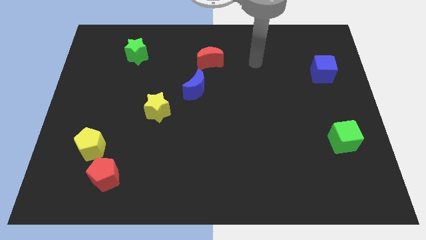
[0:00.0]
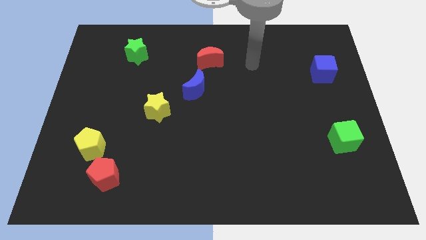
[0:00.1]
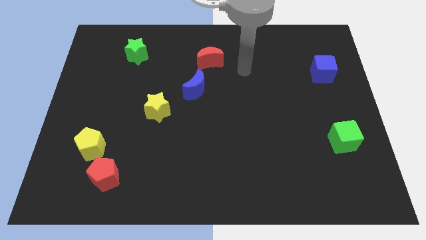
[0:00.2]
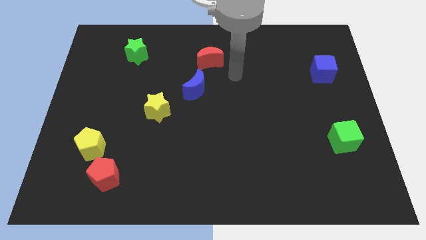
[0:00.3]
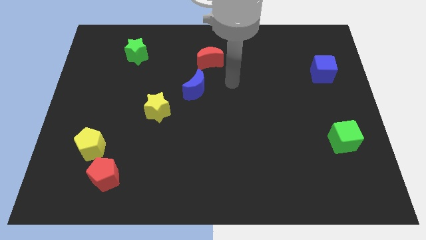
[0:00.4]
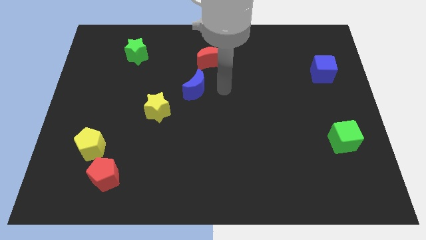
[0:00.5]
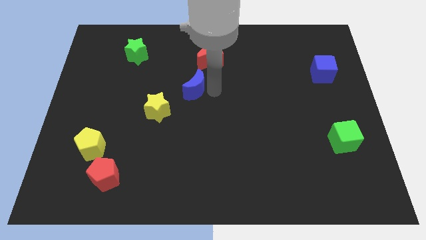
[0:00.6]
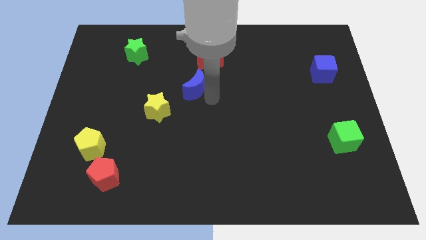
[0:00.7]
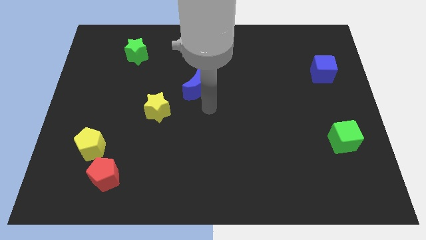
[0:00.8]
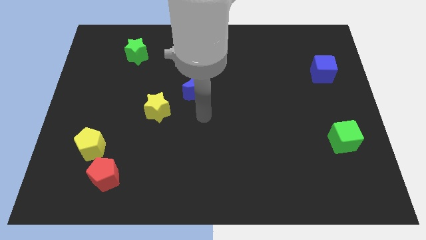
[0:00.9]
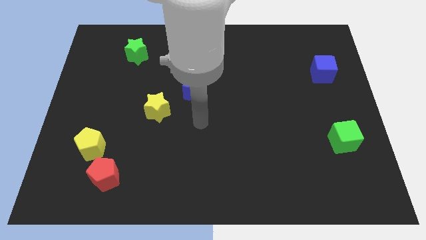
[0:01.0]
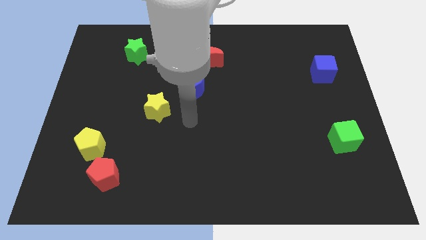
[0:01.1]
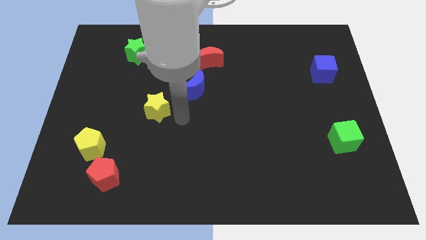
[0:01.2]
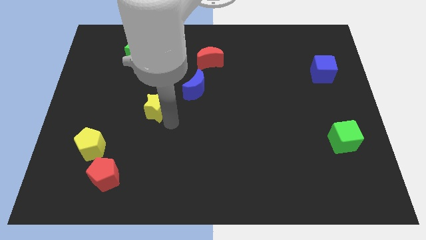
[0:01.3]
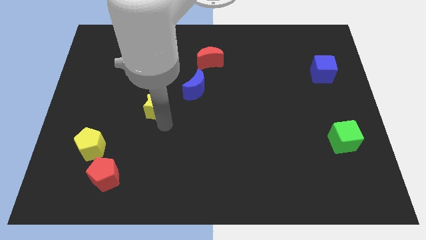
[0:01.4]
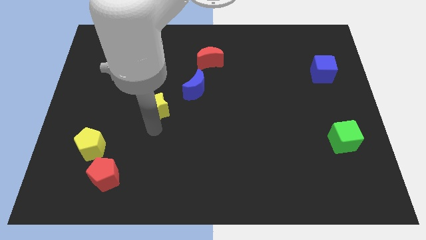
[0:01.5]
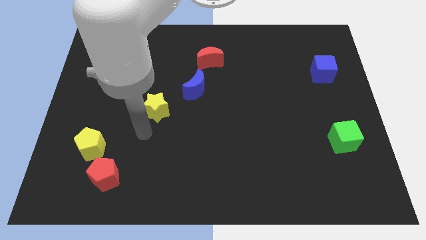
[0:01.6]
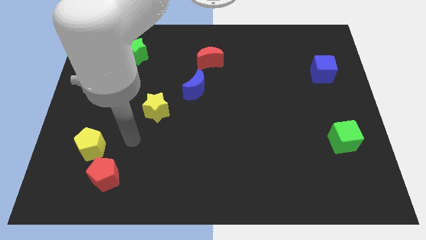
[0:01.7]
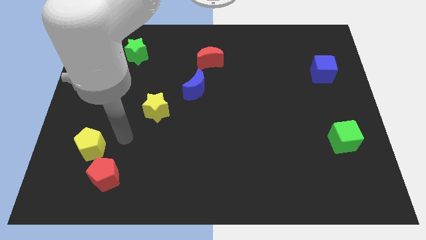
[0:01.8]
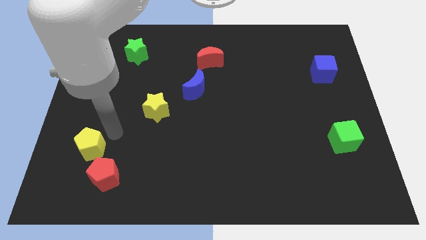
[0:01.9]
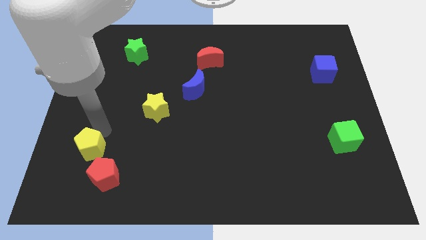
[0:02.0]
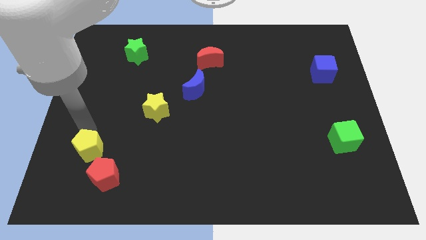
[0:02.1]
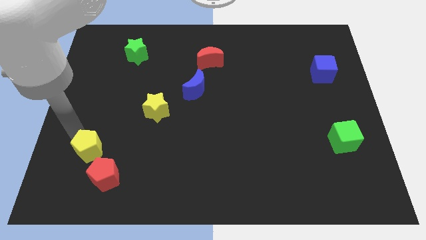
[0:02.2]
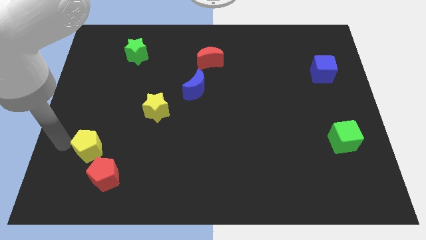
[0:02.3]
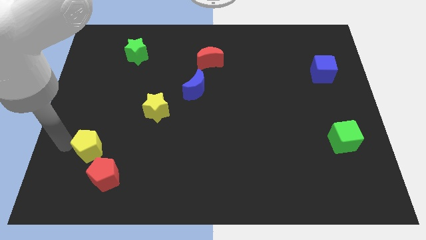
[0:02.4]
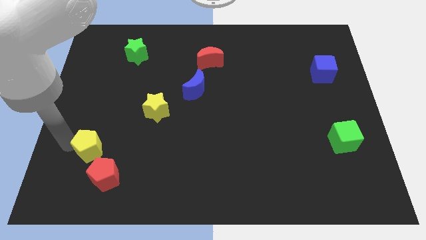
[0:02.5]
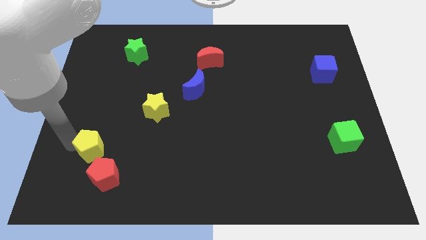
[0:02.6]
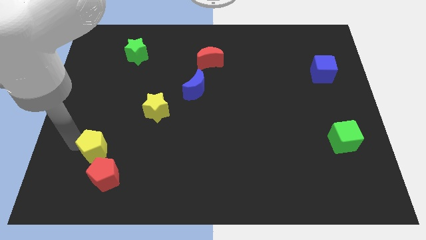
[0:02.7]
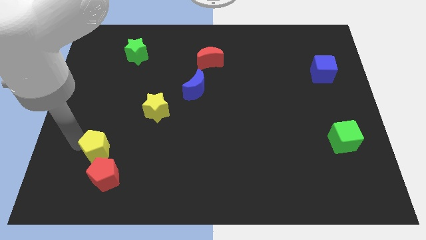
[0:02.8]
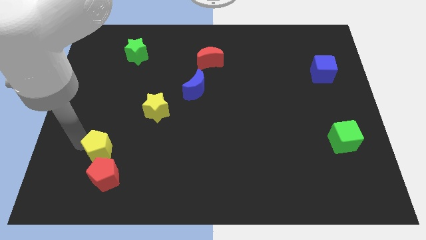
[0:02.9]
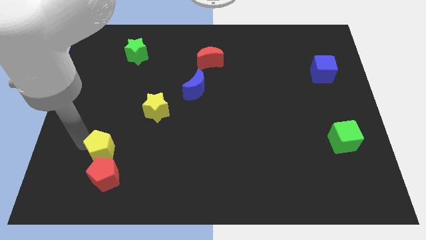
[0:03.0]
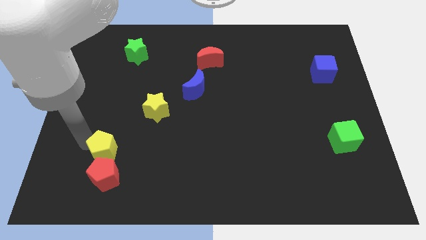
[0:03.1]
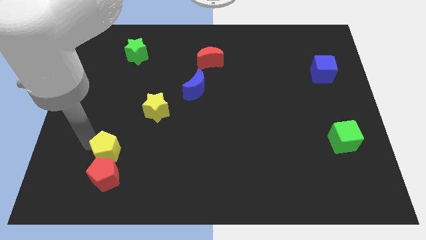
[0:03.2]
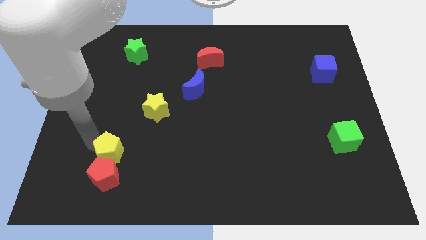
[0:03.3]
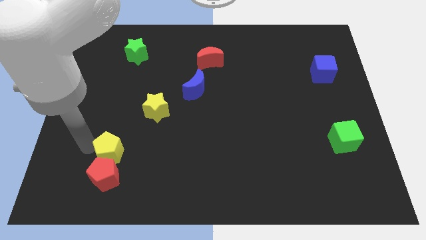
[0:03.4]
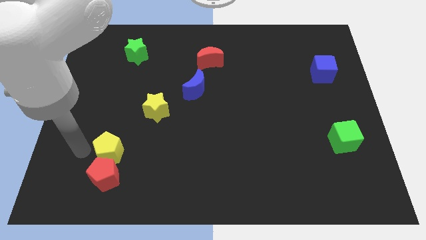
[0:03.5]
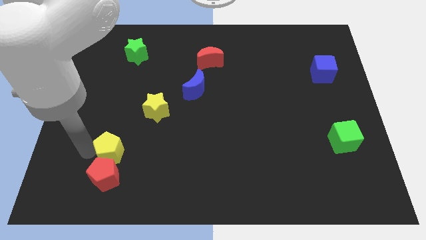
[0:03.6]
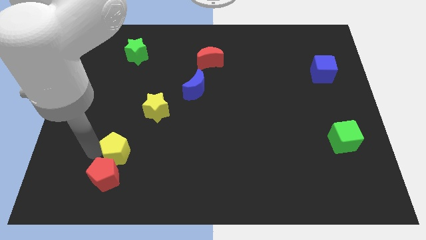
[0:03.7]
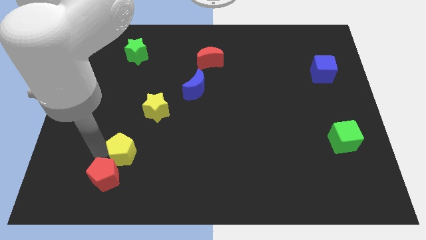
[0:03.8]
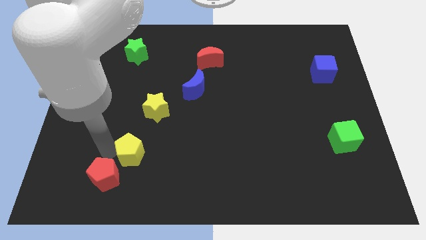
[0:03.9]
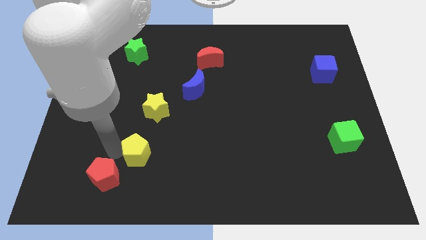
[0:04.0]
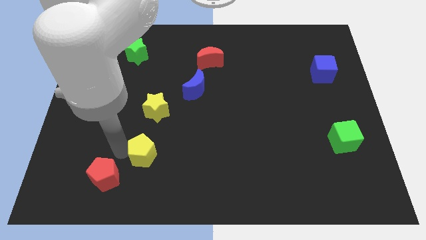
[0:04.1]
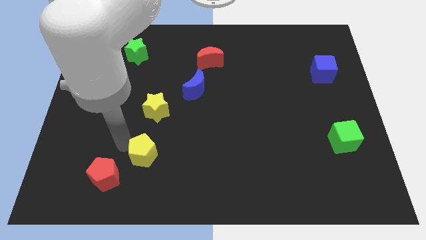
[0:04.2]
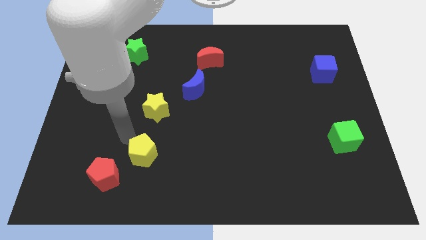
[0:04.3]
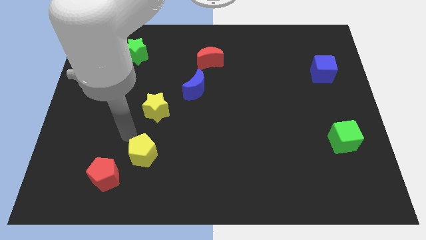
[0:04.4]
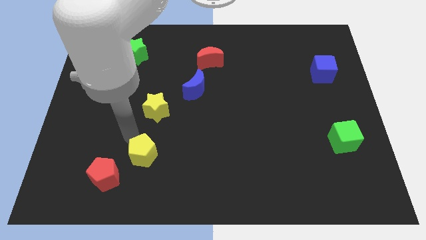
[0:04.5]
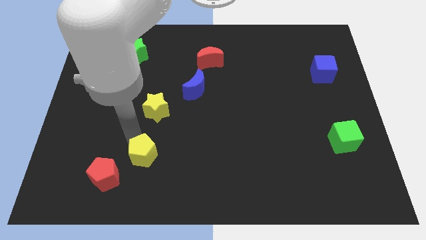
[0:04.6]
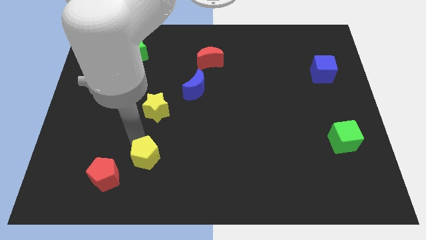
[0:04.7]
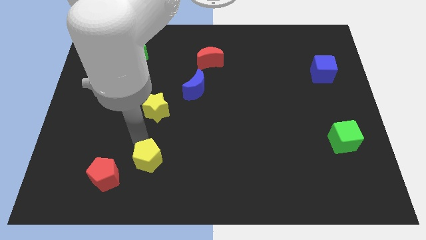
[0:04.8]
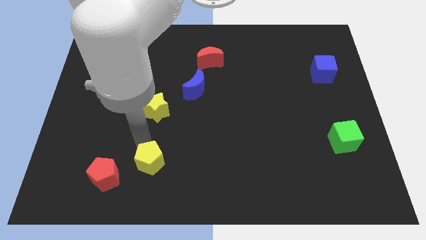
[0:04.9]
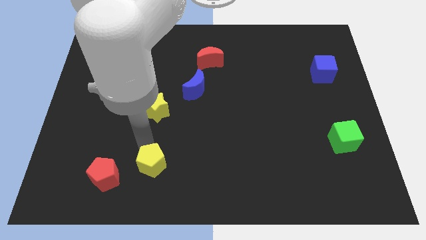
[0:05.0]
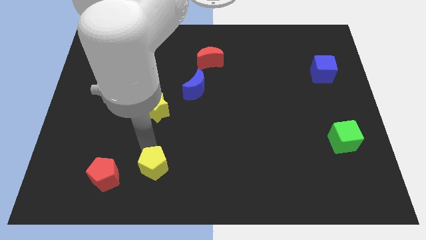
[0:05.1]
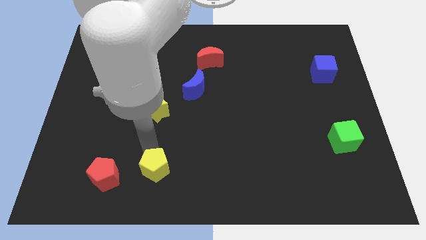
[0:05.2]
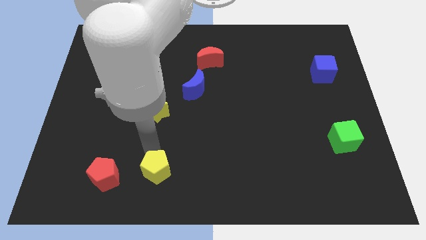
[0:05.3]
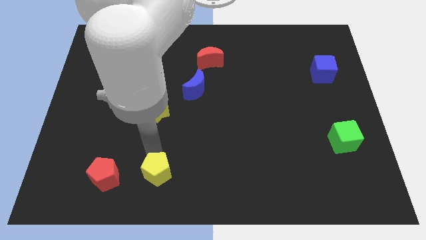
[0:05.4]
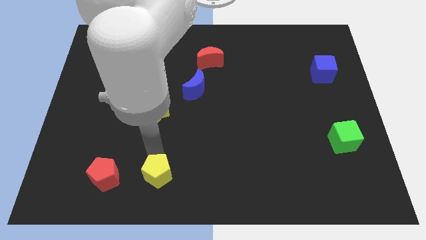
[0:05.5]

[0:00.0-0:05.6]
push the yellow pentagon to the bottom side

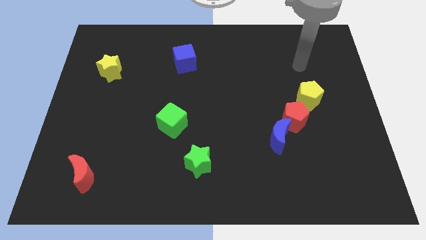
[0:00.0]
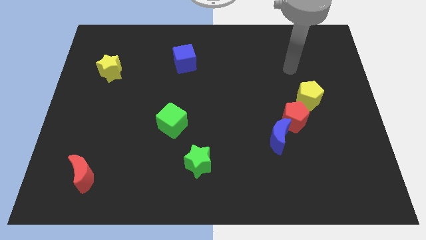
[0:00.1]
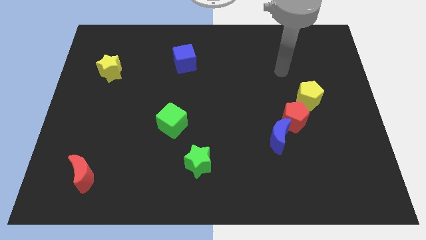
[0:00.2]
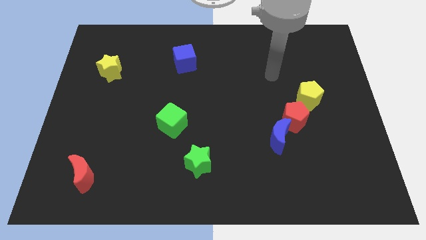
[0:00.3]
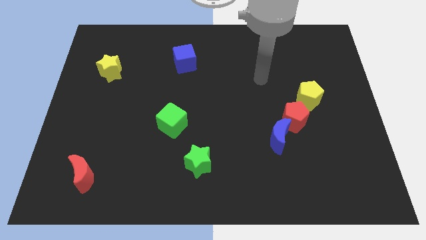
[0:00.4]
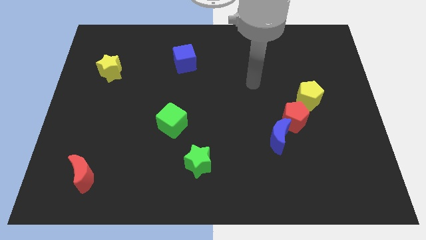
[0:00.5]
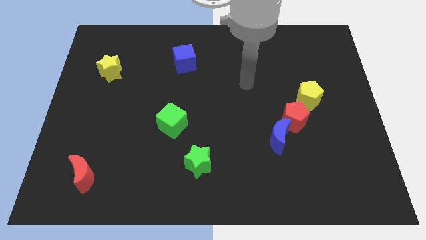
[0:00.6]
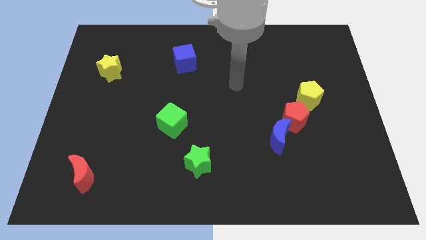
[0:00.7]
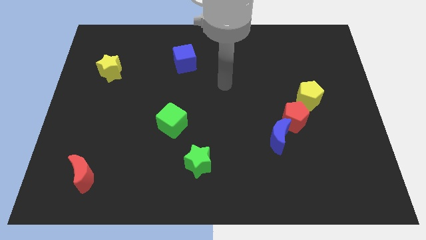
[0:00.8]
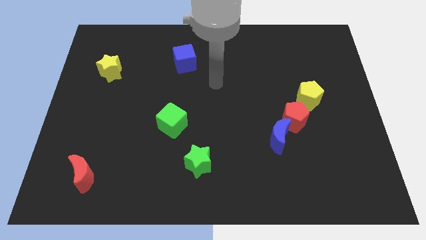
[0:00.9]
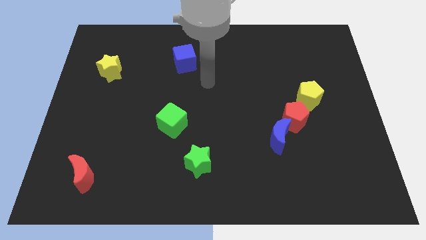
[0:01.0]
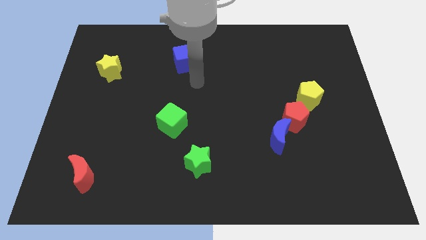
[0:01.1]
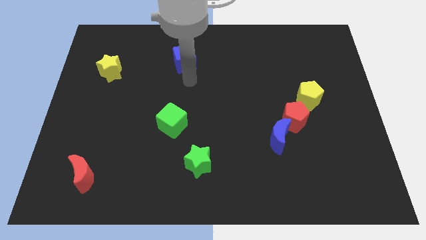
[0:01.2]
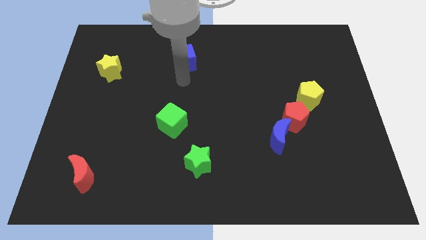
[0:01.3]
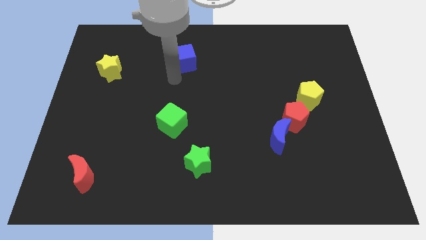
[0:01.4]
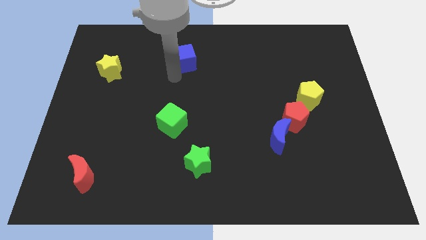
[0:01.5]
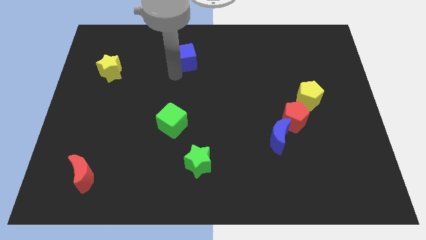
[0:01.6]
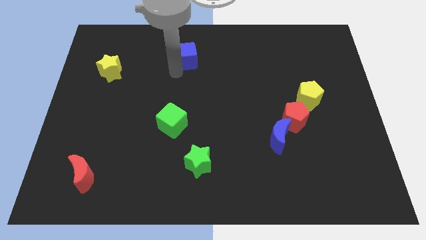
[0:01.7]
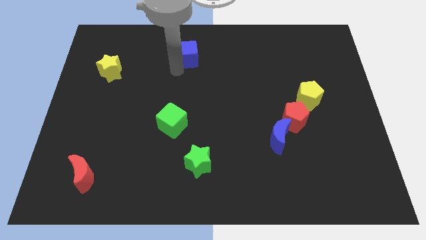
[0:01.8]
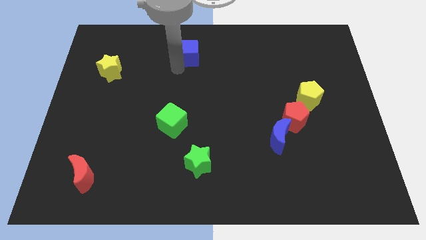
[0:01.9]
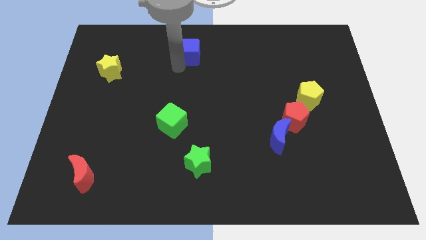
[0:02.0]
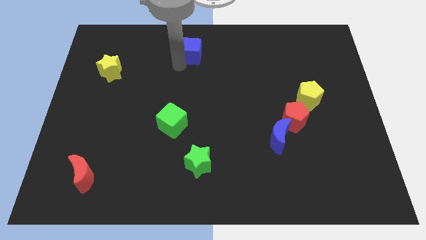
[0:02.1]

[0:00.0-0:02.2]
push the blue cube to the top side
